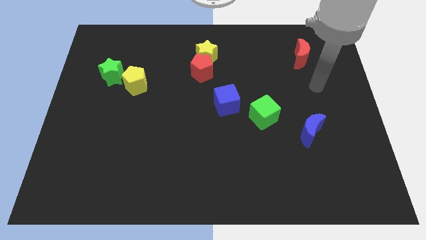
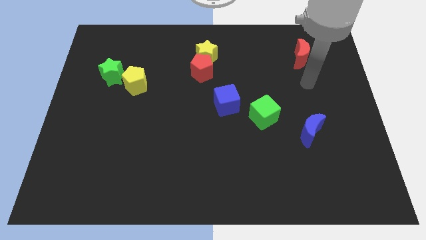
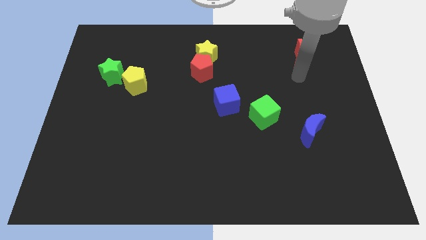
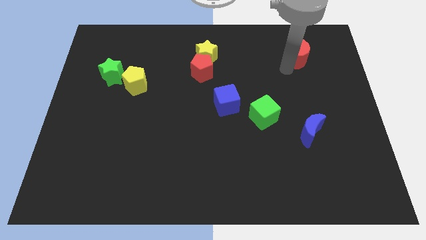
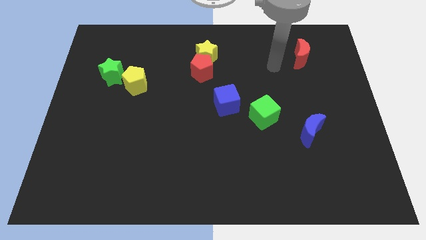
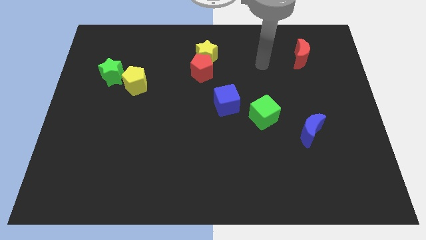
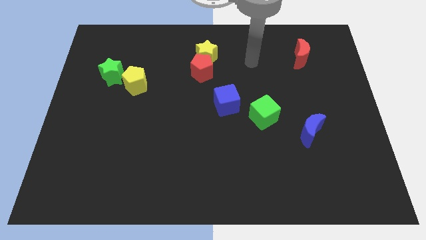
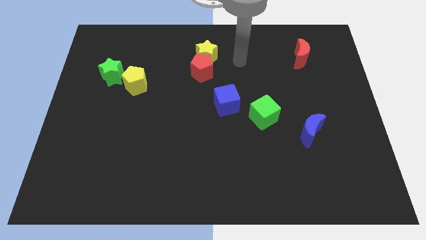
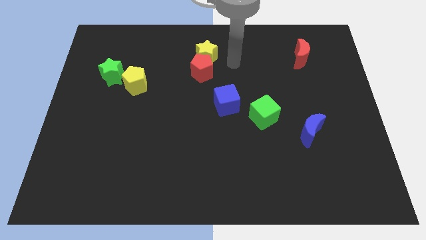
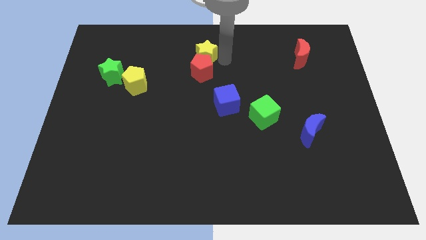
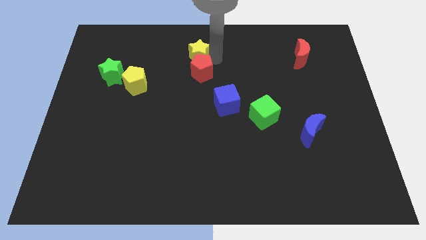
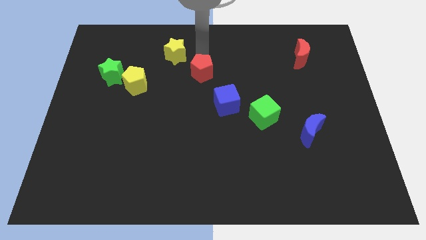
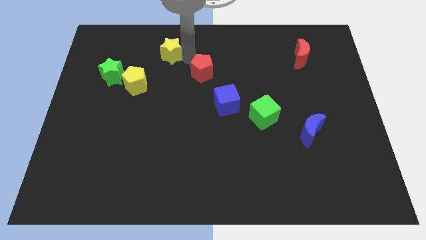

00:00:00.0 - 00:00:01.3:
pull the red pentagon apart from the yellow star

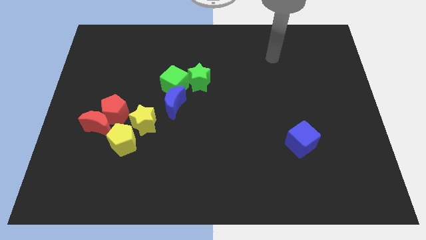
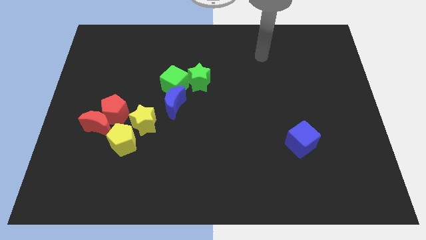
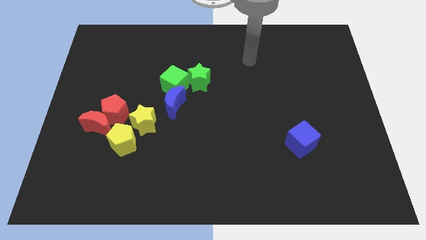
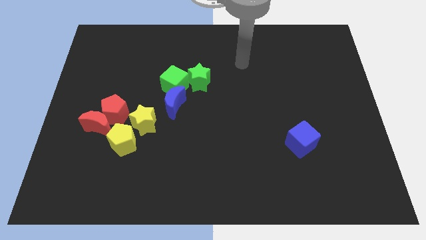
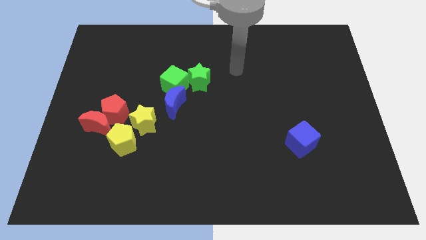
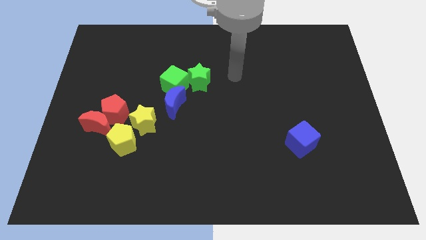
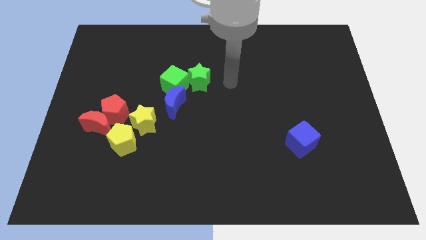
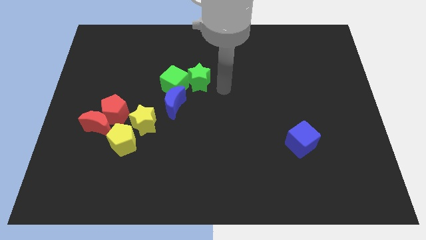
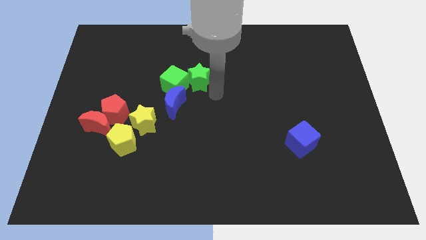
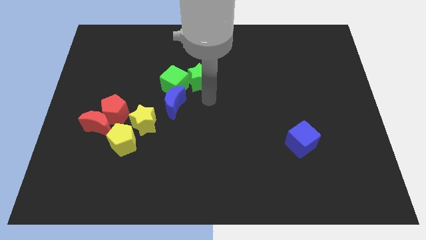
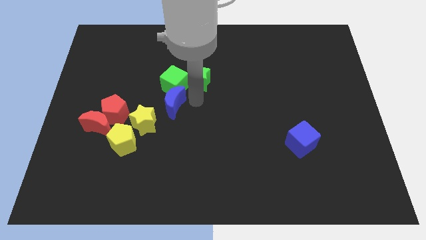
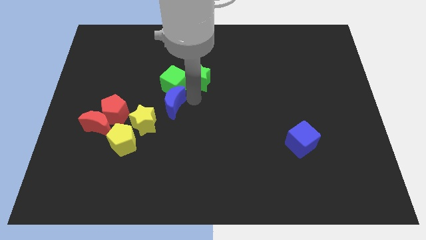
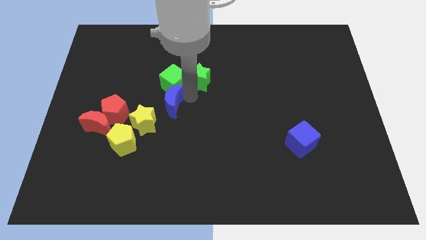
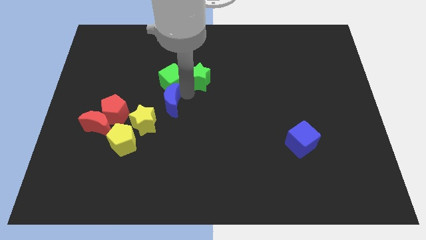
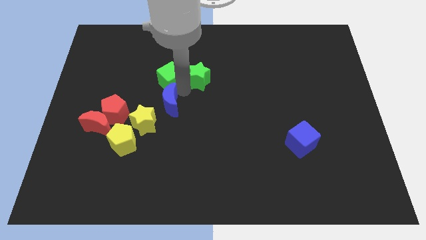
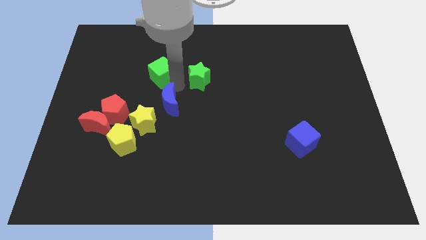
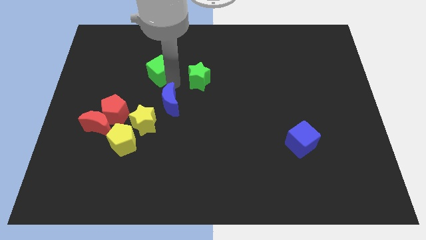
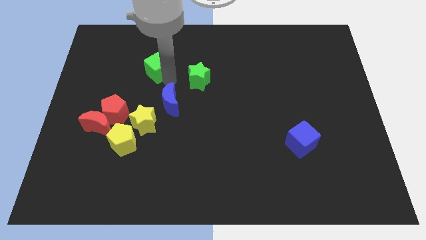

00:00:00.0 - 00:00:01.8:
move the green cube away from the blue moon and green star

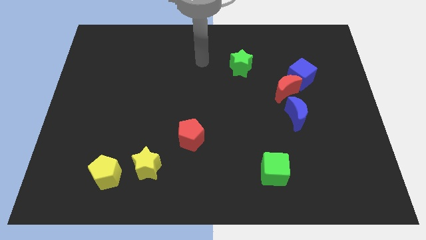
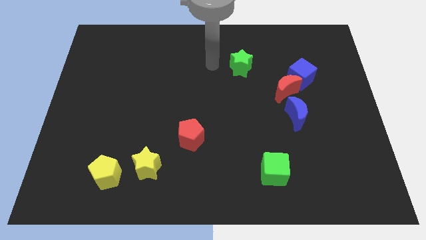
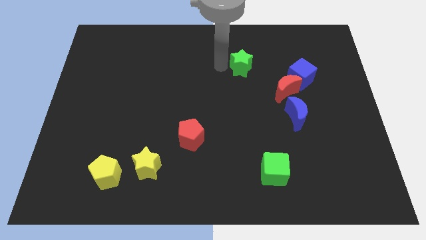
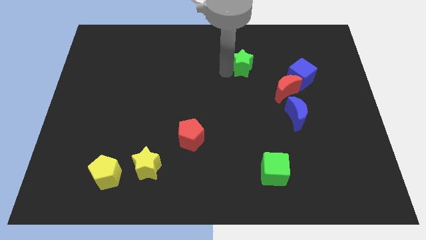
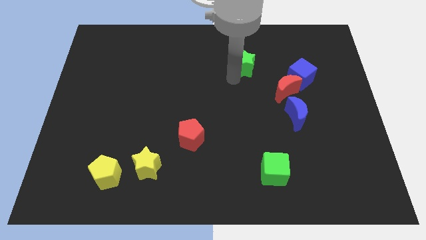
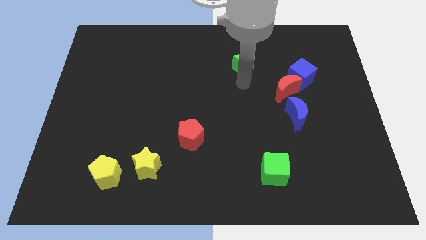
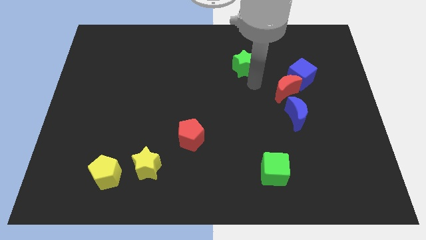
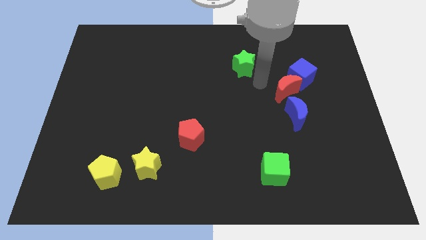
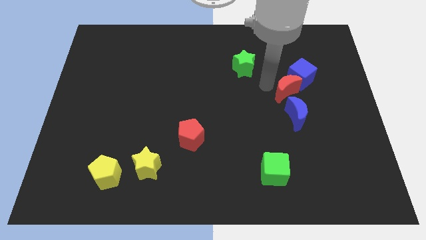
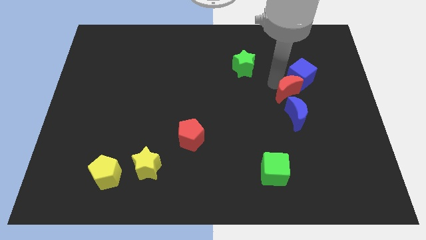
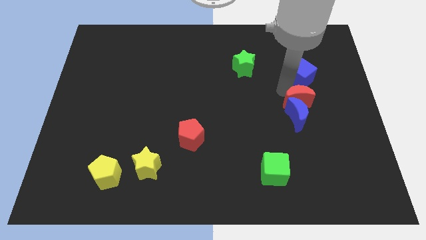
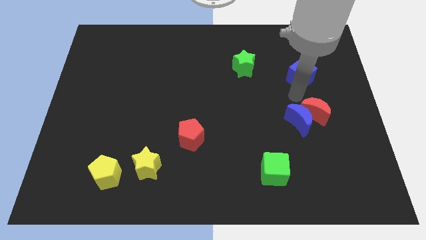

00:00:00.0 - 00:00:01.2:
separate the blue cube from the red moon

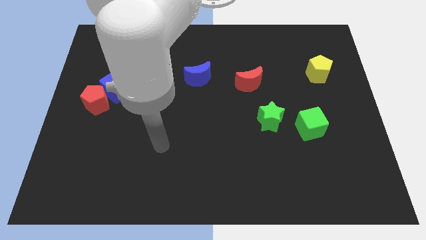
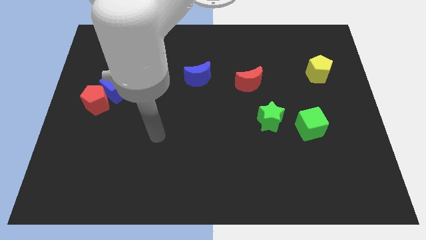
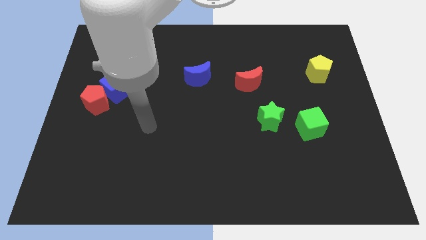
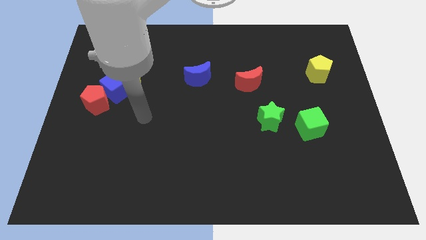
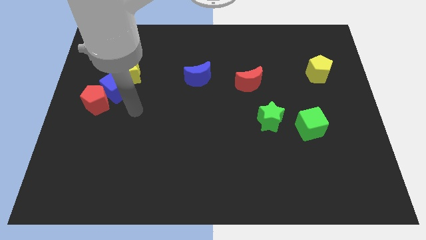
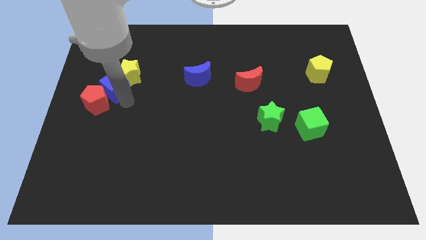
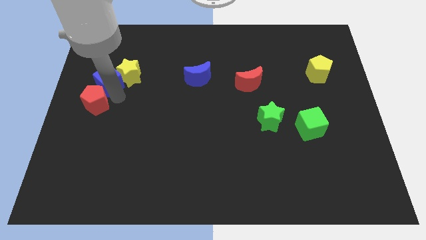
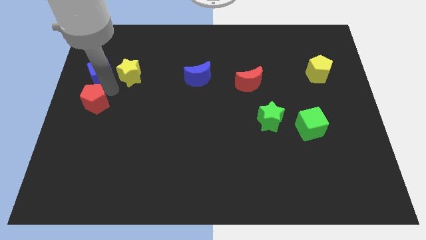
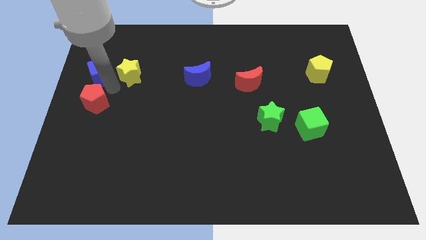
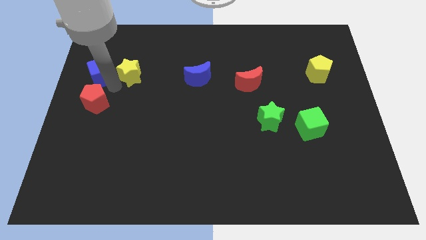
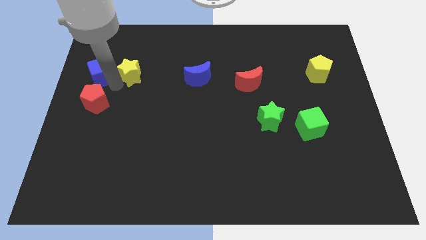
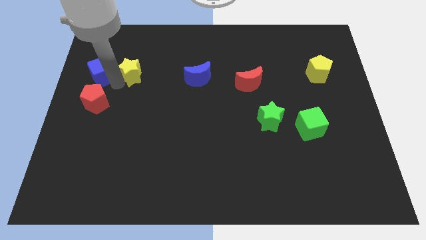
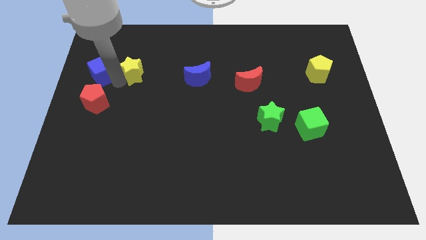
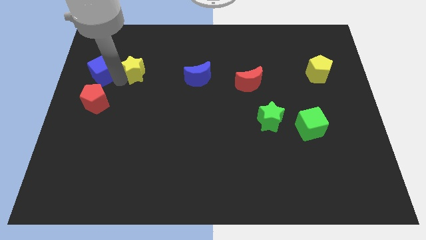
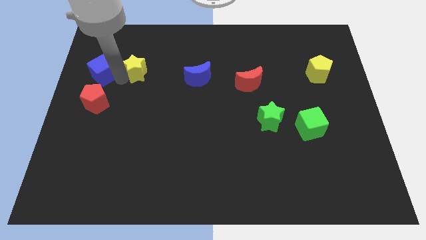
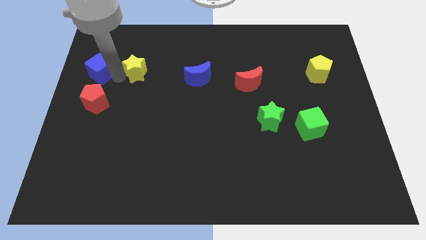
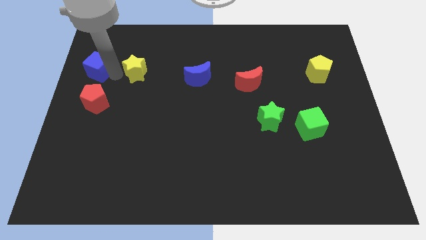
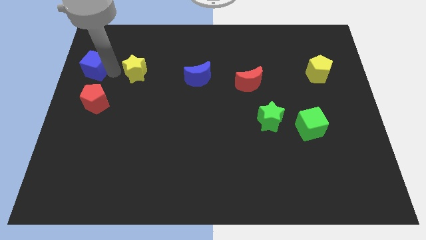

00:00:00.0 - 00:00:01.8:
move the yellow star away from the blue cube

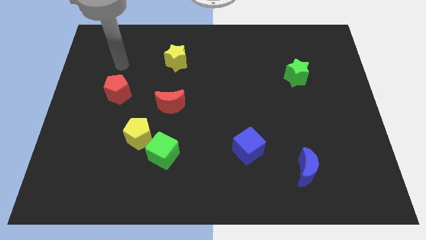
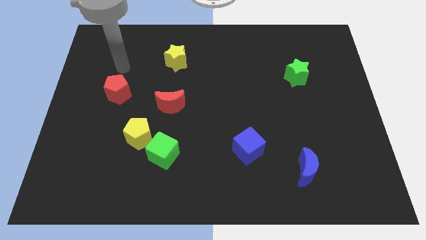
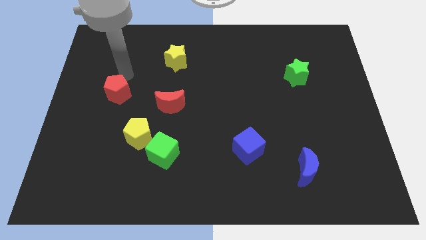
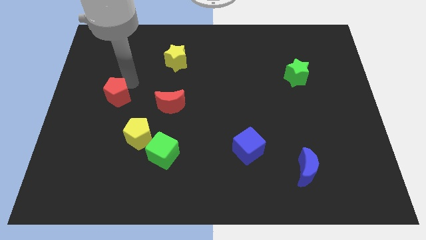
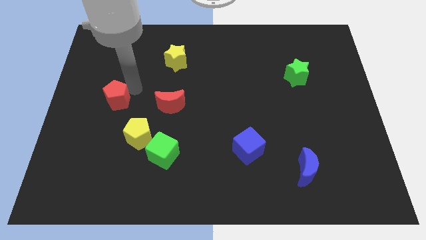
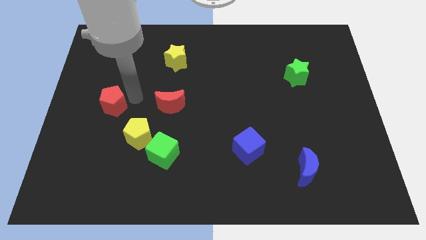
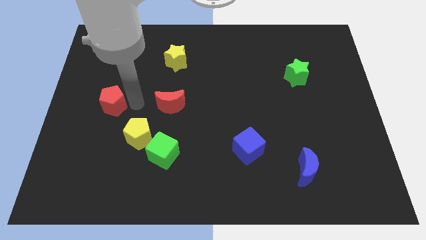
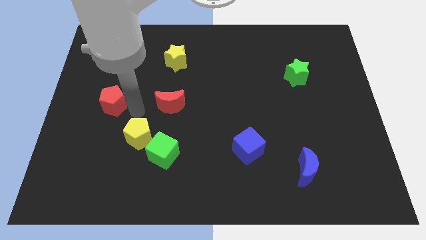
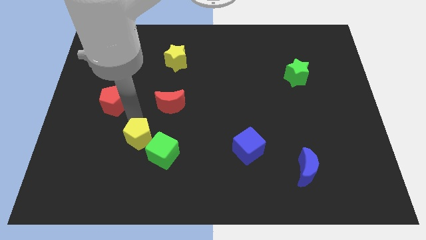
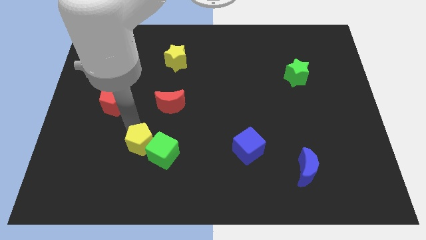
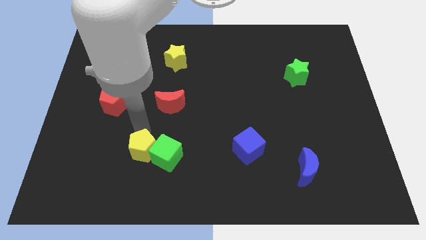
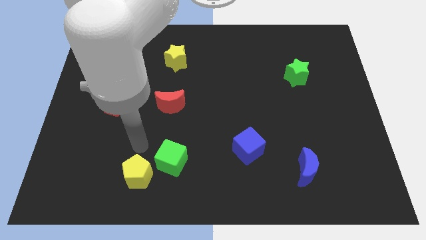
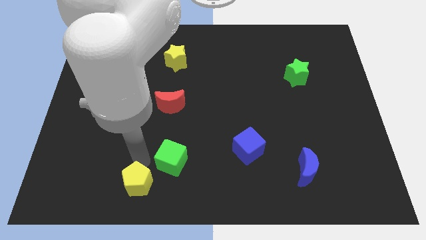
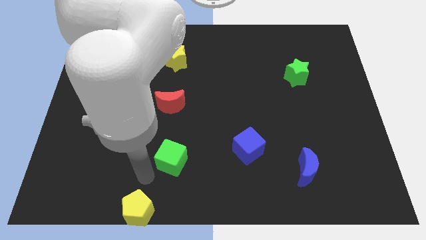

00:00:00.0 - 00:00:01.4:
move the green cube away from the yellow pentagon

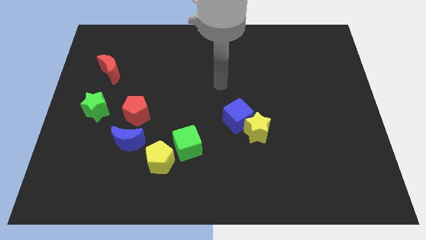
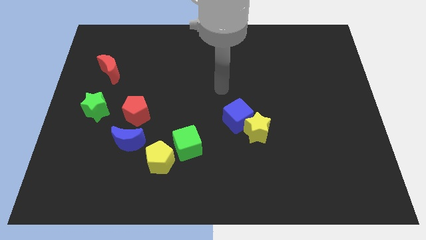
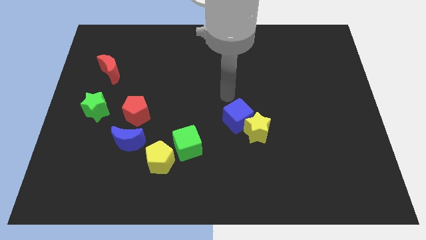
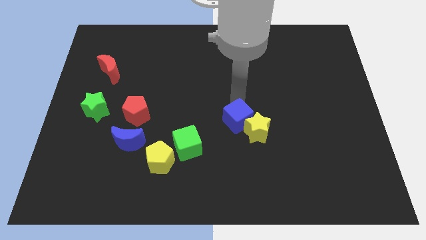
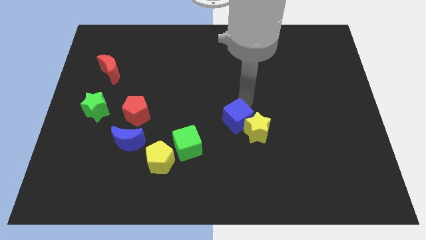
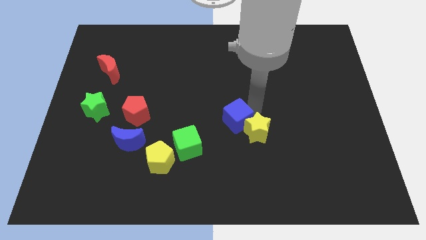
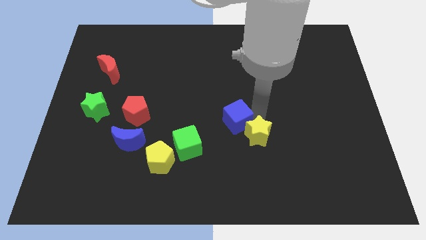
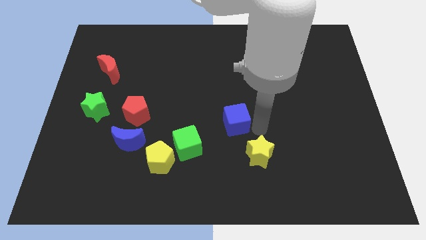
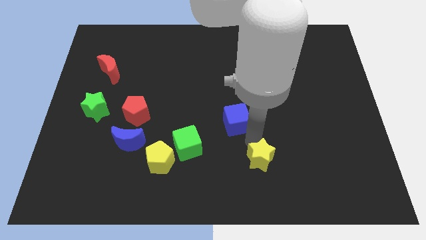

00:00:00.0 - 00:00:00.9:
separate the blue cube from the yellow star

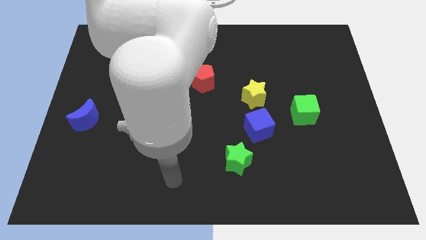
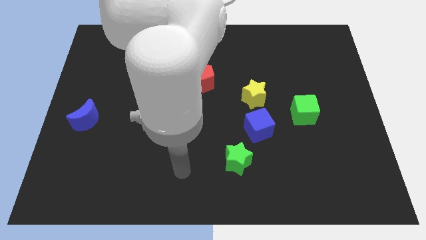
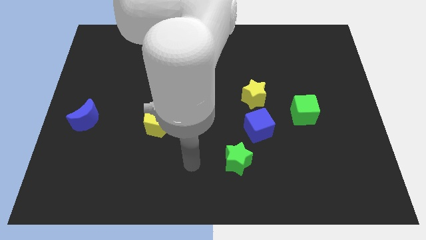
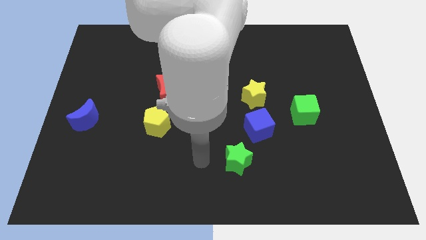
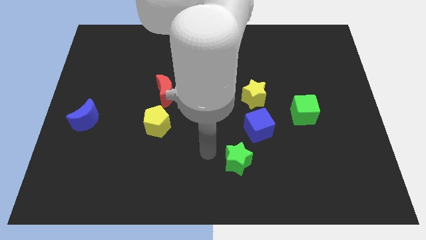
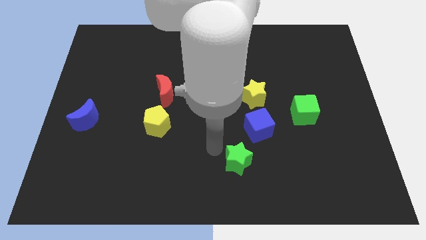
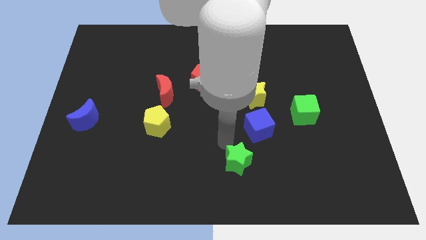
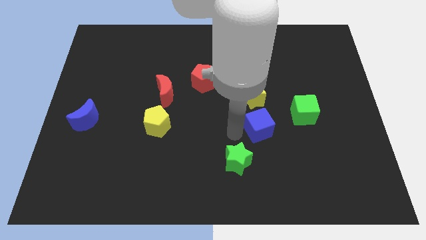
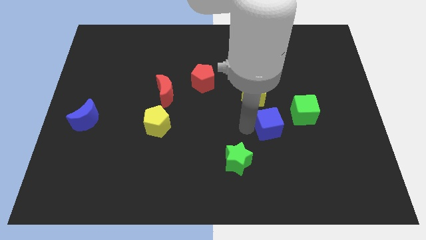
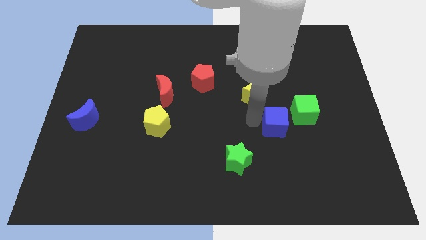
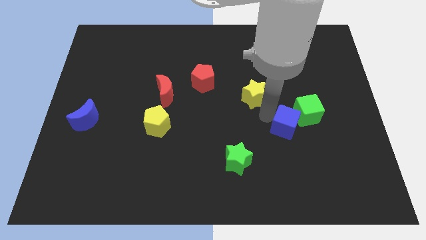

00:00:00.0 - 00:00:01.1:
separate the yellow star from the blue cube
